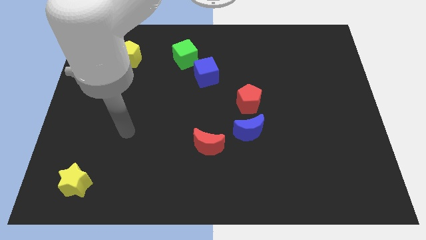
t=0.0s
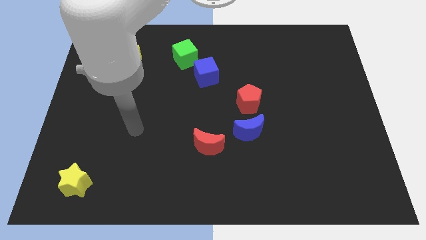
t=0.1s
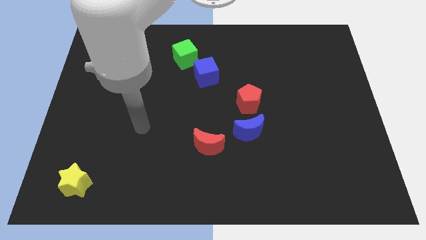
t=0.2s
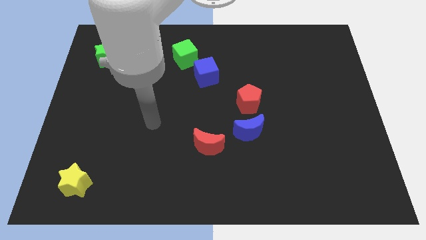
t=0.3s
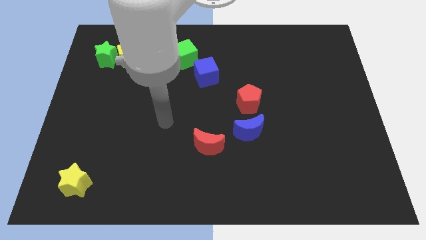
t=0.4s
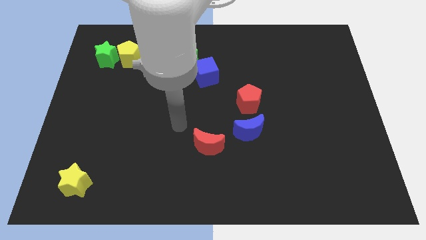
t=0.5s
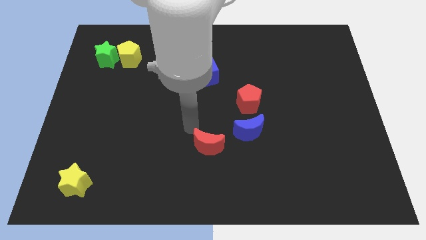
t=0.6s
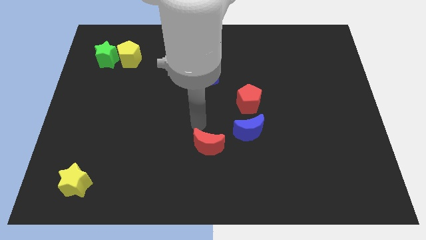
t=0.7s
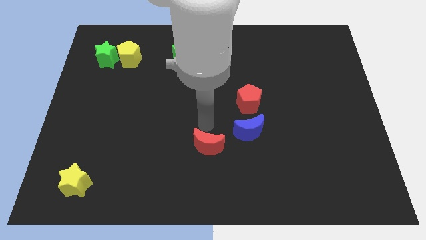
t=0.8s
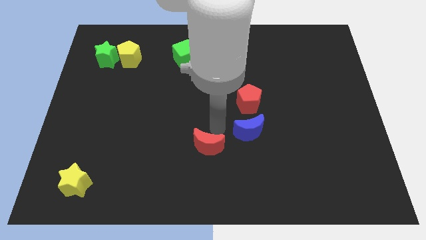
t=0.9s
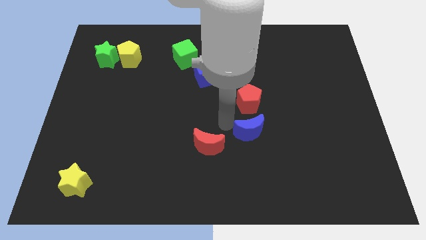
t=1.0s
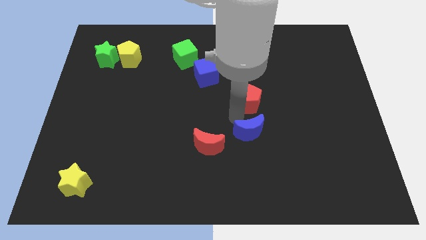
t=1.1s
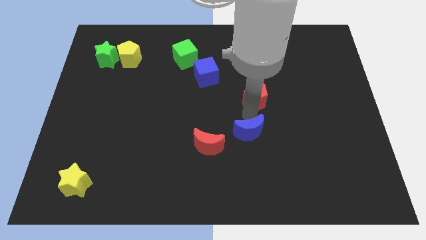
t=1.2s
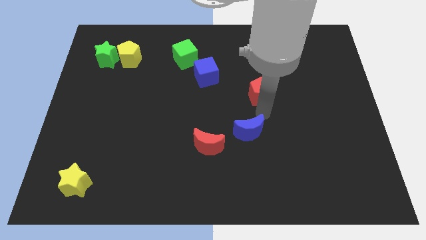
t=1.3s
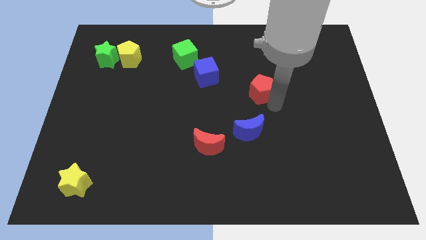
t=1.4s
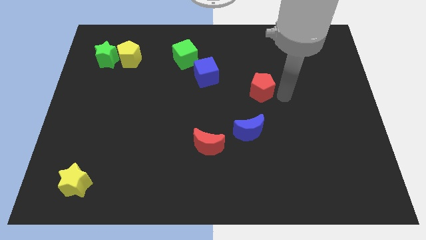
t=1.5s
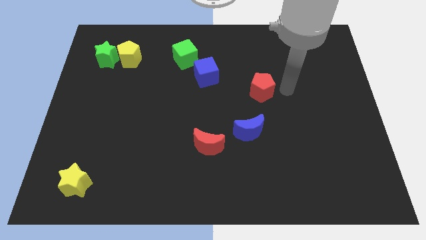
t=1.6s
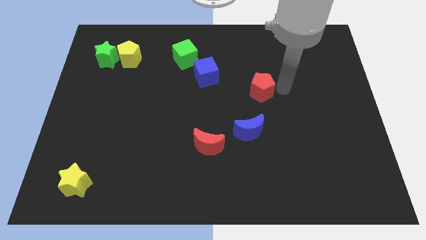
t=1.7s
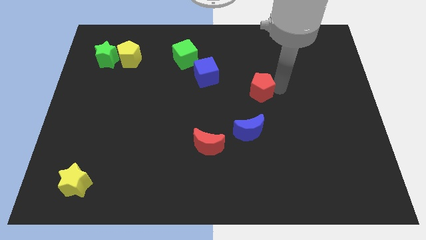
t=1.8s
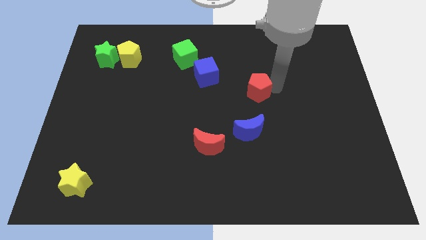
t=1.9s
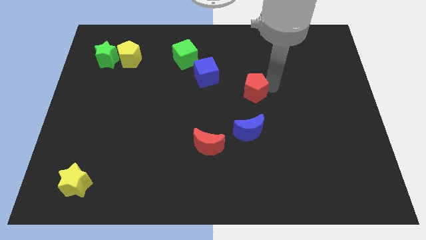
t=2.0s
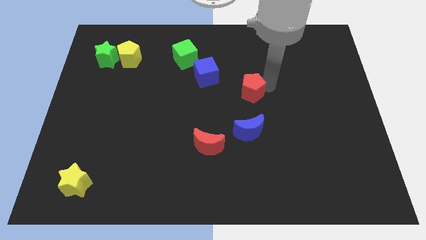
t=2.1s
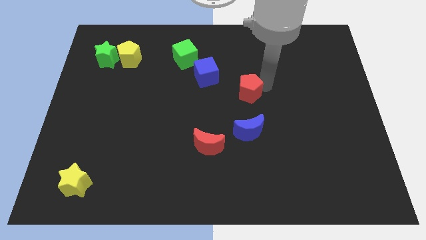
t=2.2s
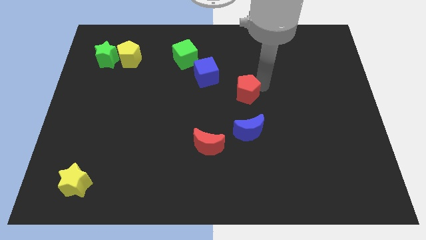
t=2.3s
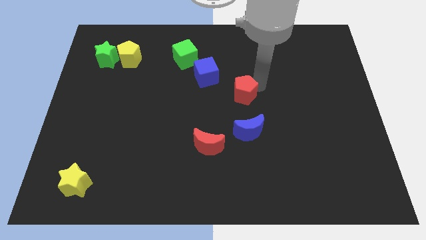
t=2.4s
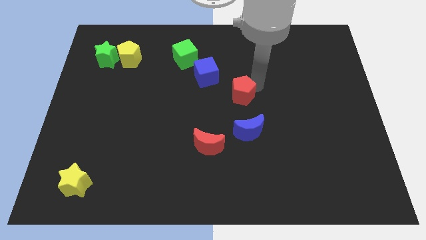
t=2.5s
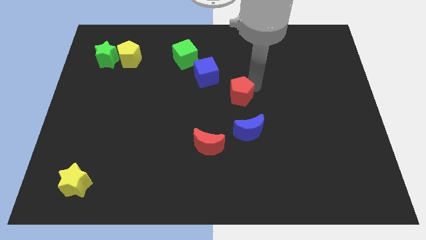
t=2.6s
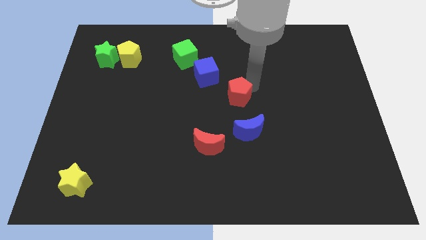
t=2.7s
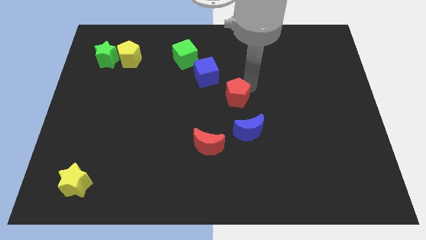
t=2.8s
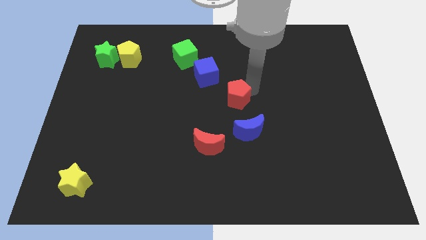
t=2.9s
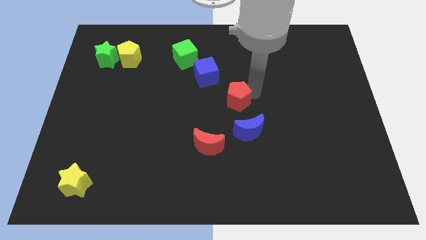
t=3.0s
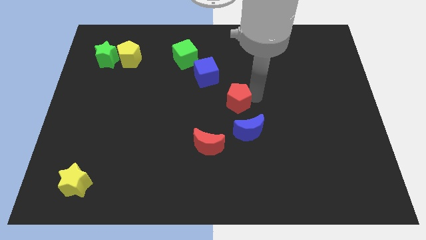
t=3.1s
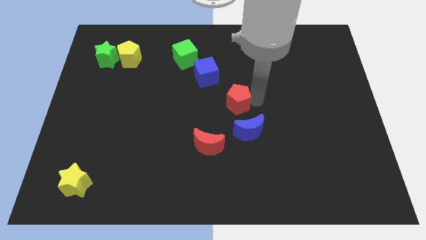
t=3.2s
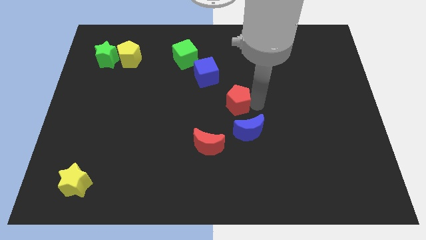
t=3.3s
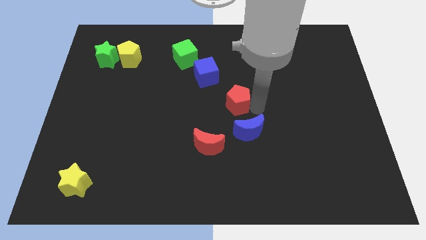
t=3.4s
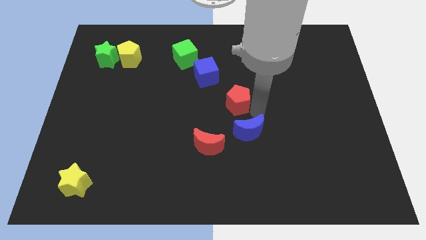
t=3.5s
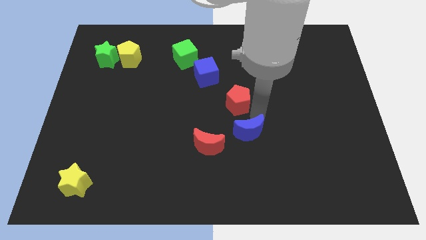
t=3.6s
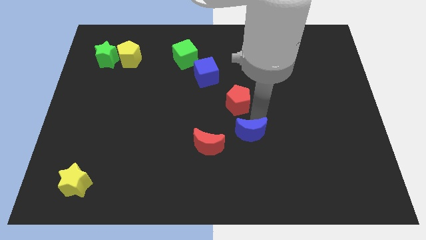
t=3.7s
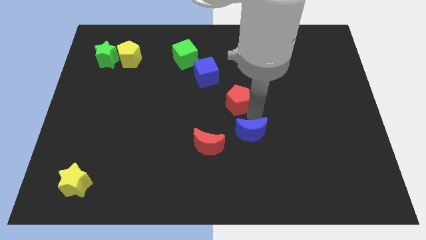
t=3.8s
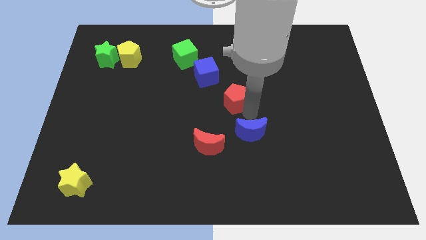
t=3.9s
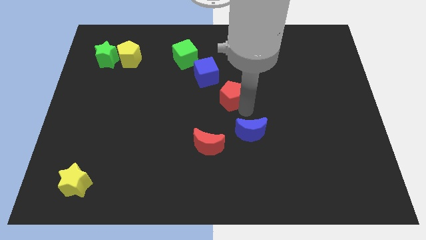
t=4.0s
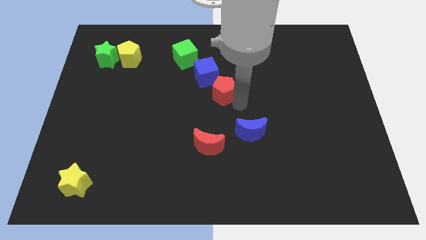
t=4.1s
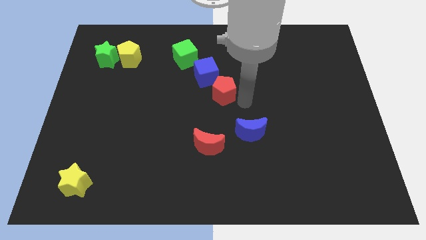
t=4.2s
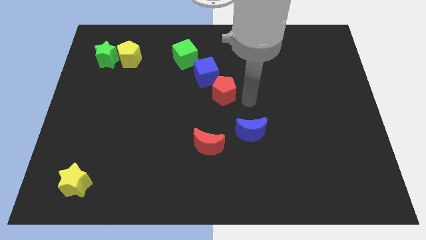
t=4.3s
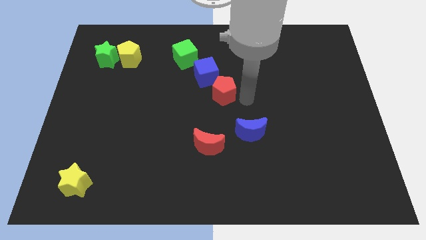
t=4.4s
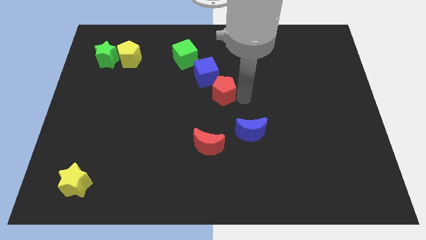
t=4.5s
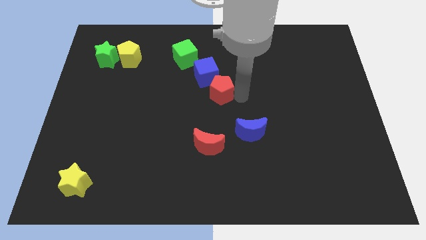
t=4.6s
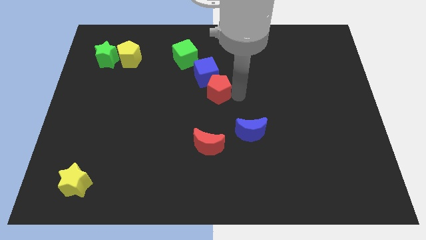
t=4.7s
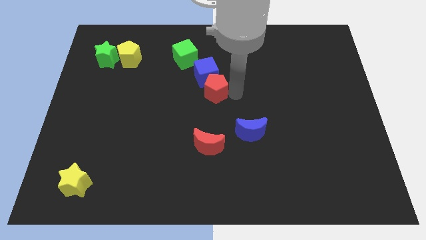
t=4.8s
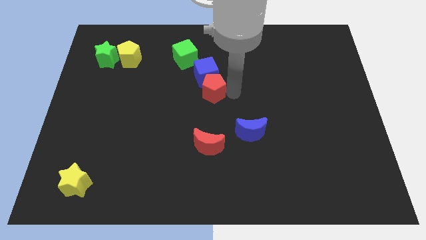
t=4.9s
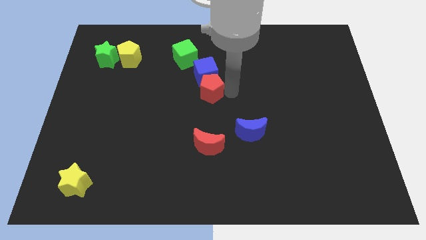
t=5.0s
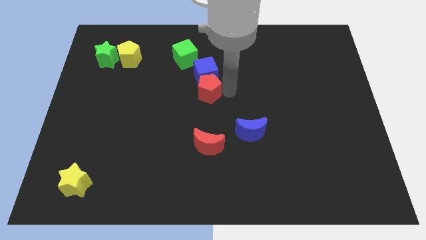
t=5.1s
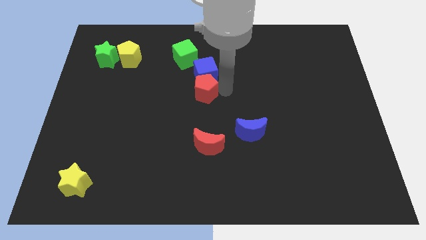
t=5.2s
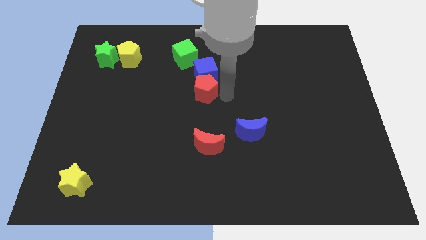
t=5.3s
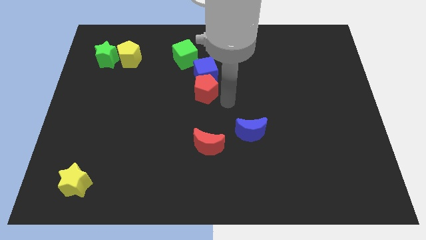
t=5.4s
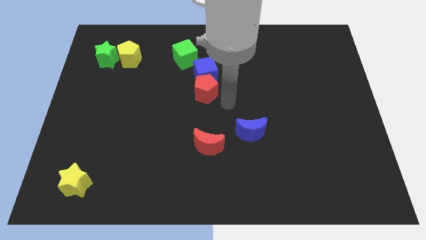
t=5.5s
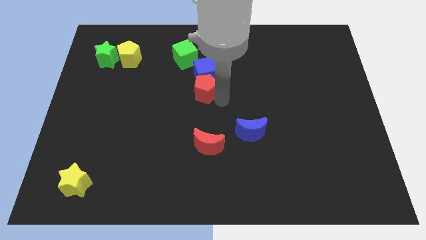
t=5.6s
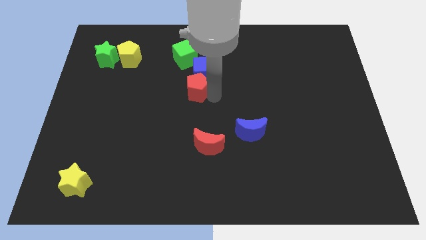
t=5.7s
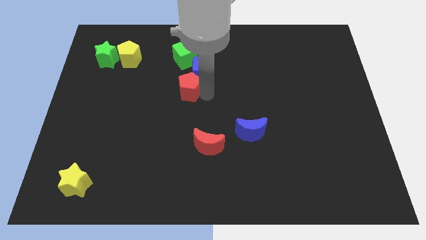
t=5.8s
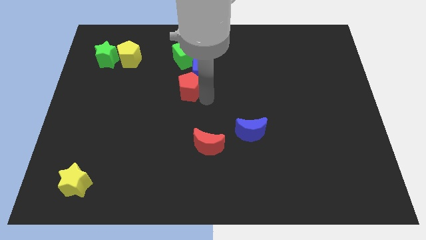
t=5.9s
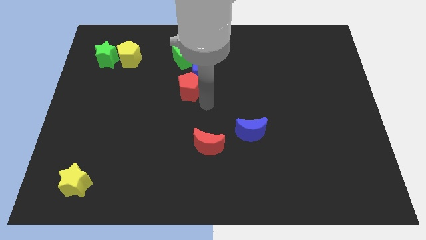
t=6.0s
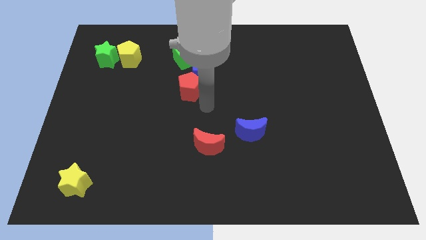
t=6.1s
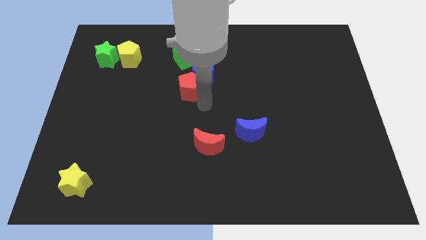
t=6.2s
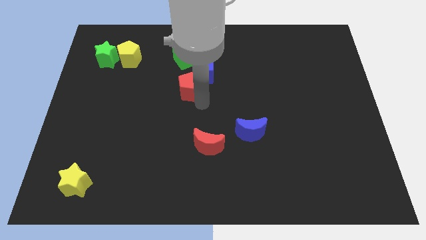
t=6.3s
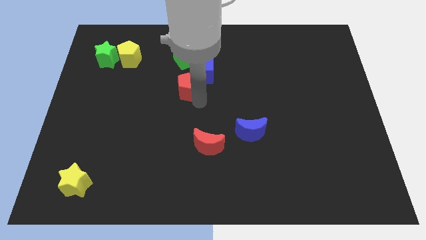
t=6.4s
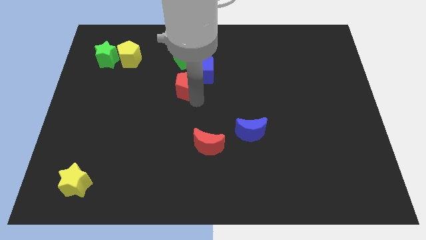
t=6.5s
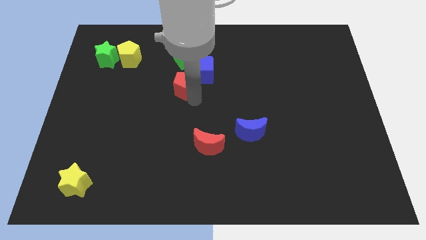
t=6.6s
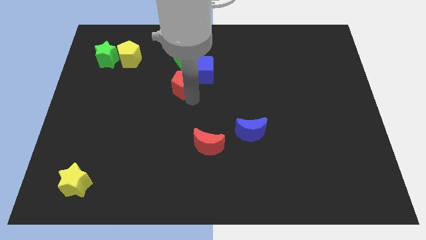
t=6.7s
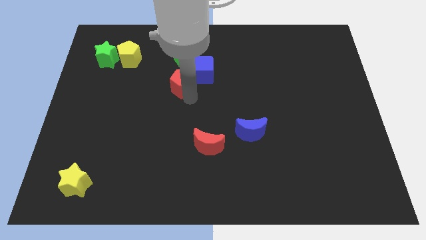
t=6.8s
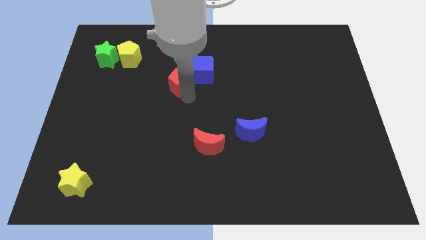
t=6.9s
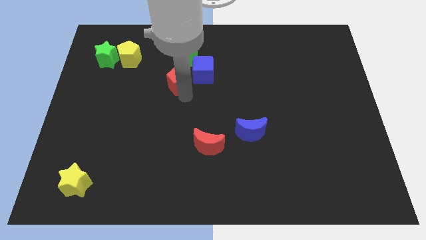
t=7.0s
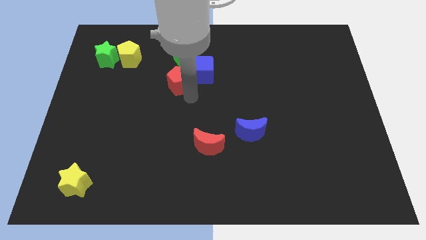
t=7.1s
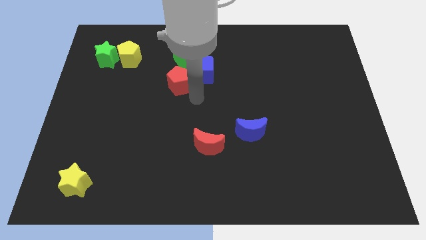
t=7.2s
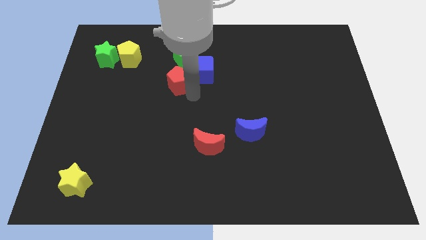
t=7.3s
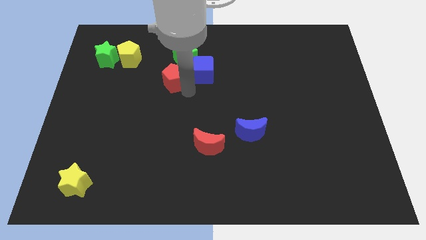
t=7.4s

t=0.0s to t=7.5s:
put the red pentagon to the bottom left side of the green cube
